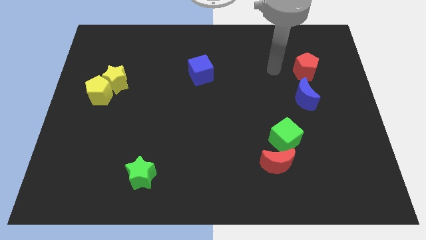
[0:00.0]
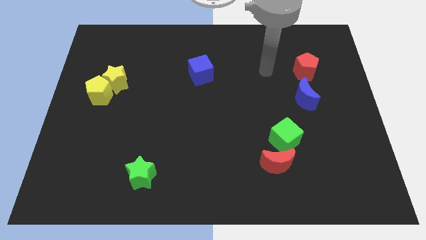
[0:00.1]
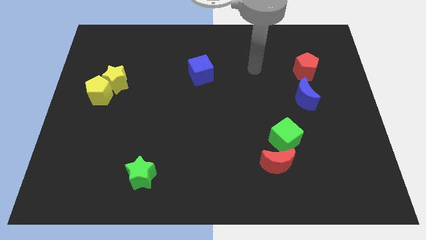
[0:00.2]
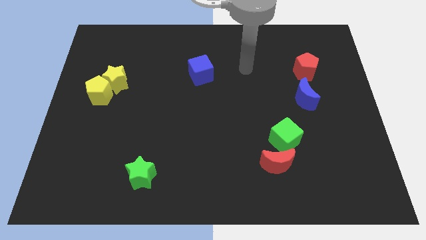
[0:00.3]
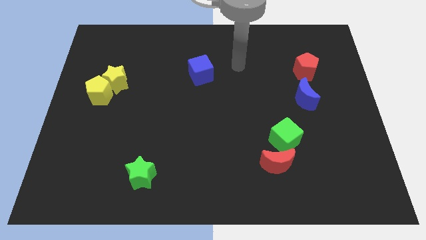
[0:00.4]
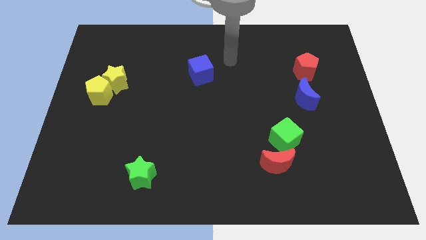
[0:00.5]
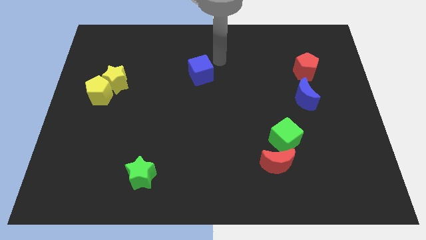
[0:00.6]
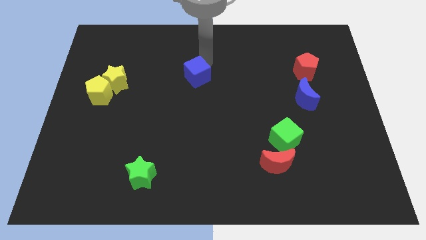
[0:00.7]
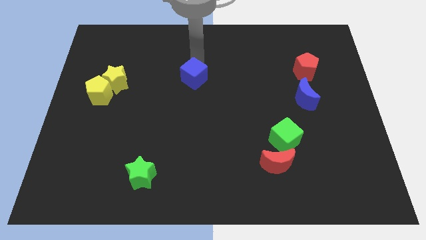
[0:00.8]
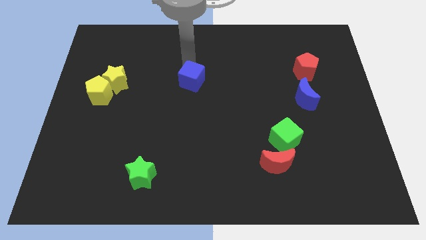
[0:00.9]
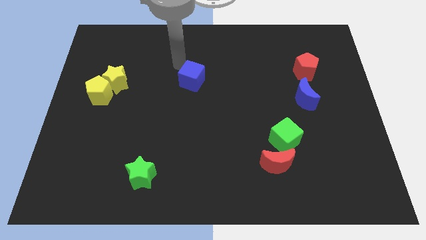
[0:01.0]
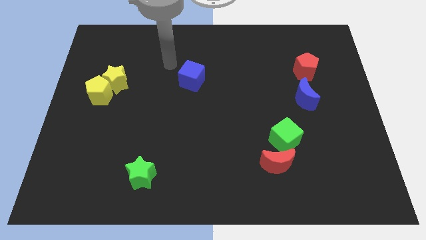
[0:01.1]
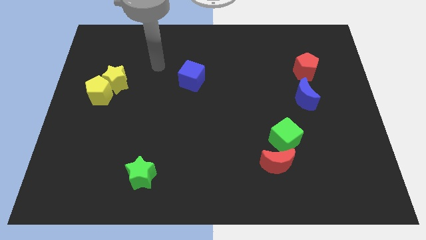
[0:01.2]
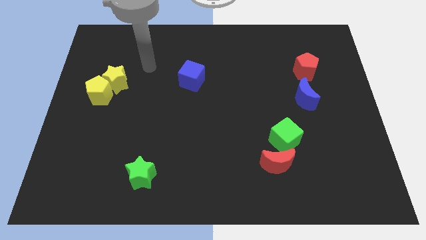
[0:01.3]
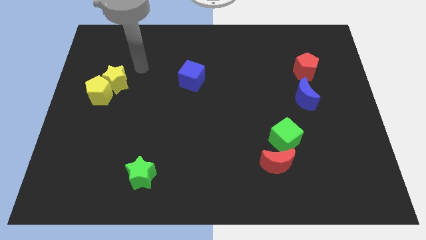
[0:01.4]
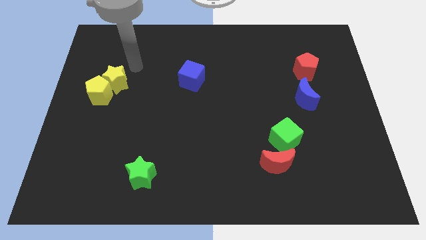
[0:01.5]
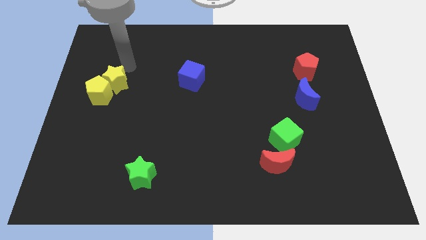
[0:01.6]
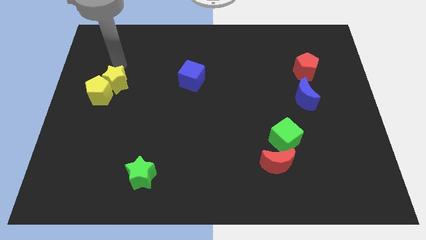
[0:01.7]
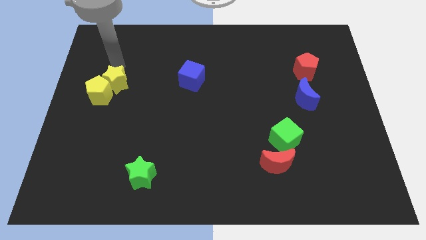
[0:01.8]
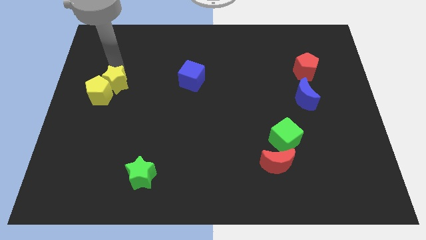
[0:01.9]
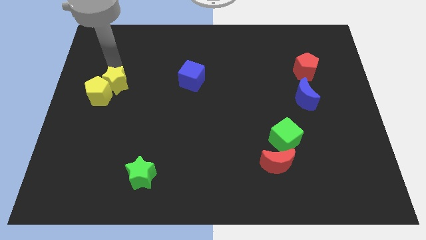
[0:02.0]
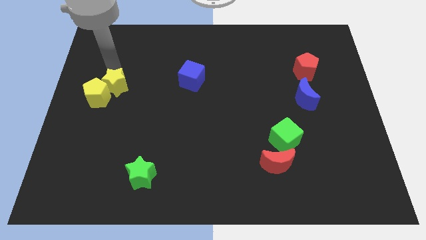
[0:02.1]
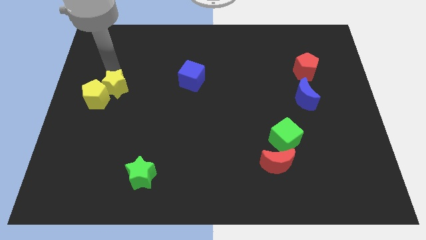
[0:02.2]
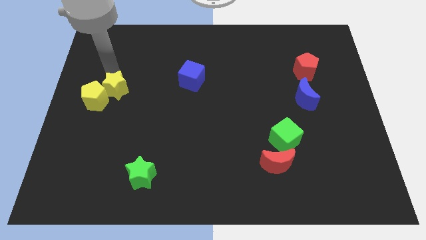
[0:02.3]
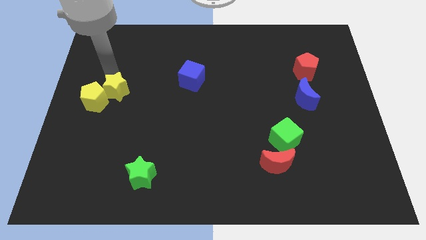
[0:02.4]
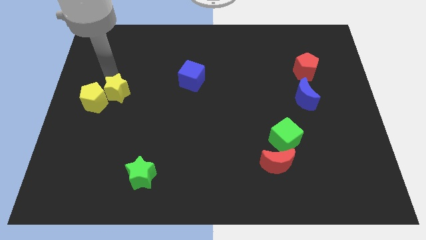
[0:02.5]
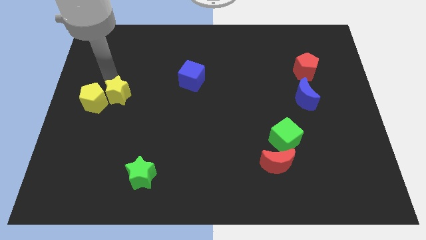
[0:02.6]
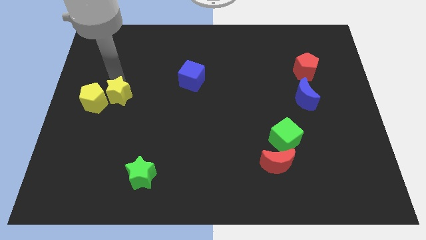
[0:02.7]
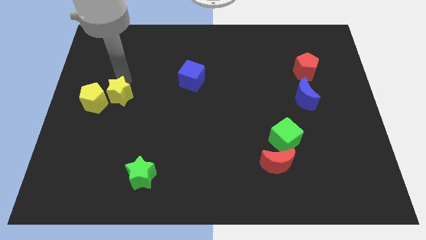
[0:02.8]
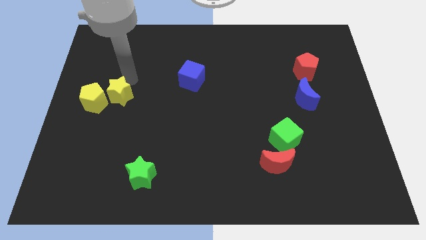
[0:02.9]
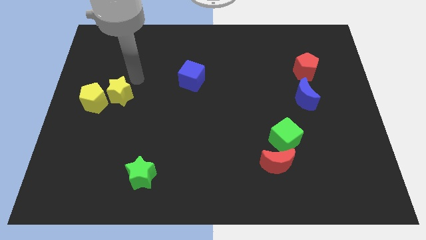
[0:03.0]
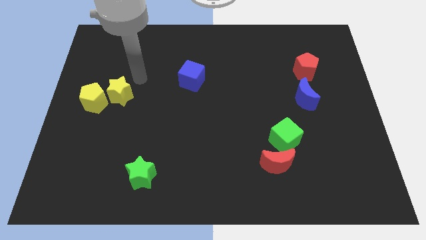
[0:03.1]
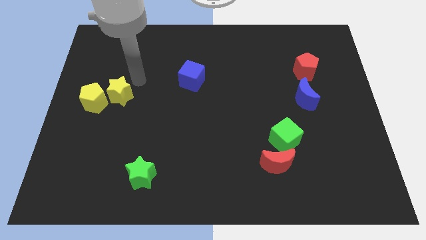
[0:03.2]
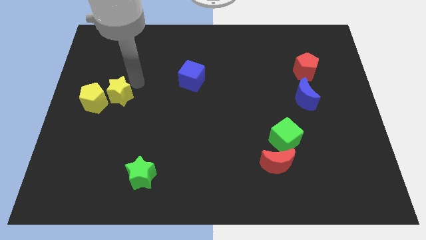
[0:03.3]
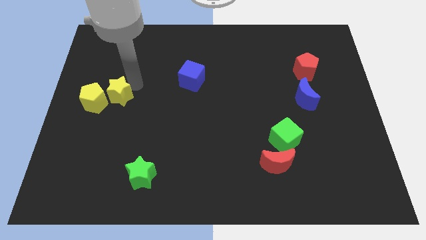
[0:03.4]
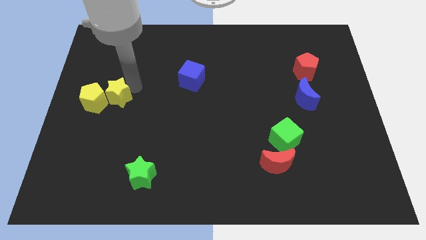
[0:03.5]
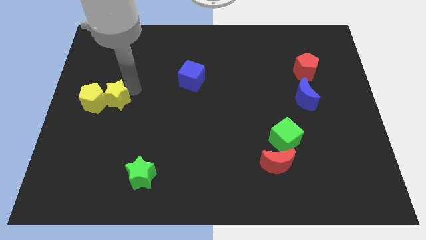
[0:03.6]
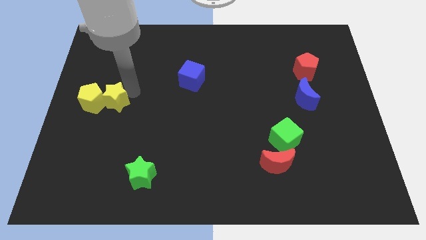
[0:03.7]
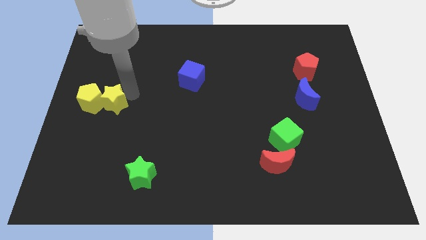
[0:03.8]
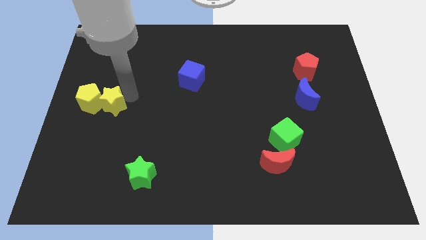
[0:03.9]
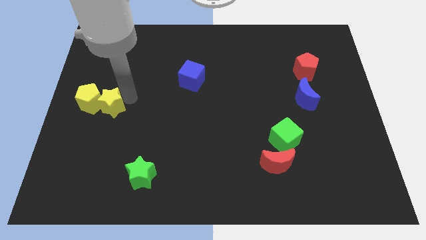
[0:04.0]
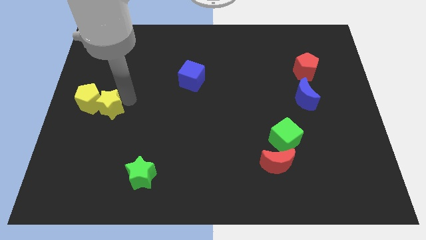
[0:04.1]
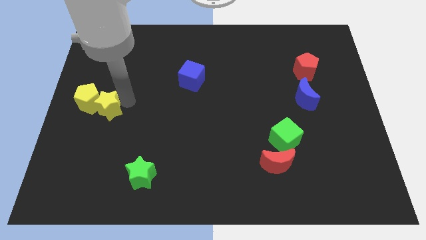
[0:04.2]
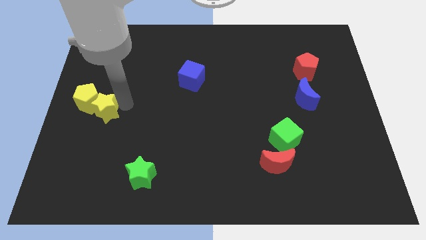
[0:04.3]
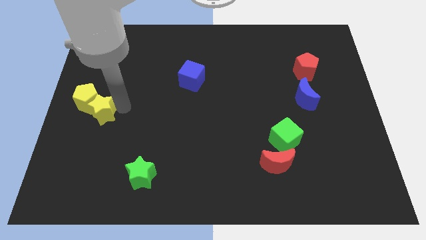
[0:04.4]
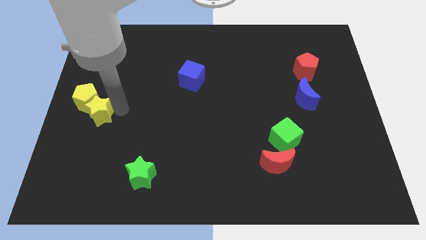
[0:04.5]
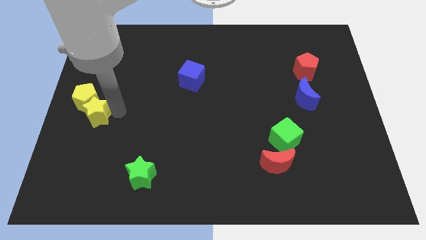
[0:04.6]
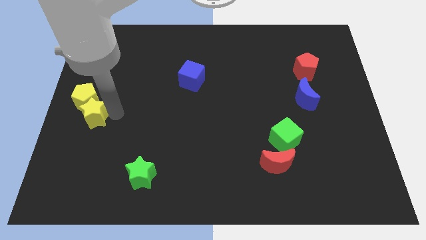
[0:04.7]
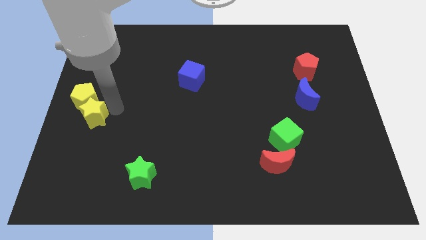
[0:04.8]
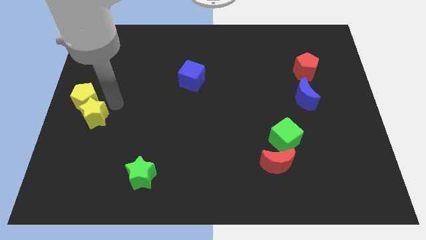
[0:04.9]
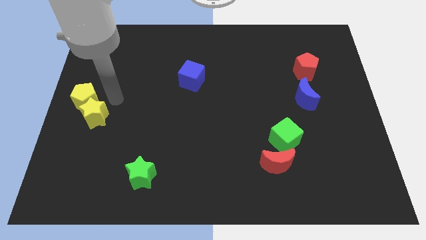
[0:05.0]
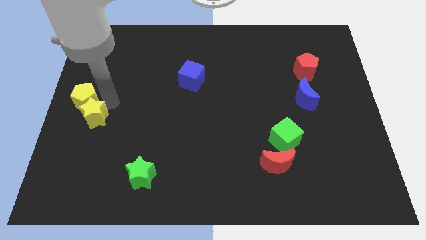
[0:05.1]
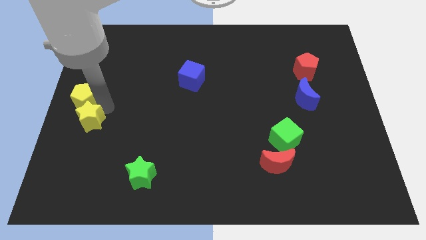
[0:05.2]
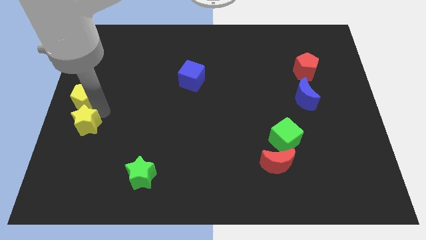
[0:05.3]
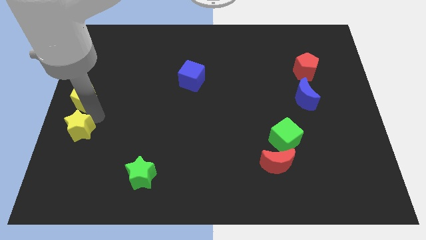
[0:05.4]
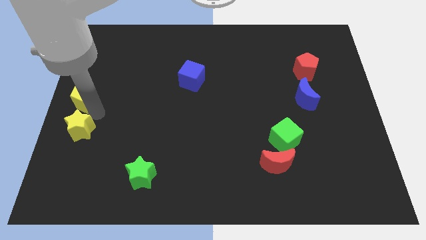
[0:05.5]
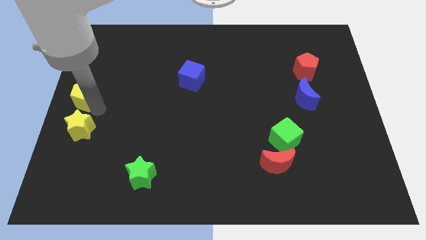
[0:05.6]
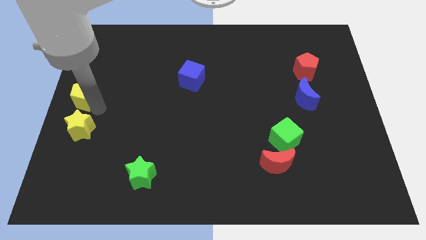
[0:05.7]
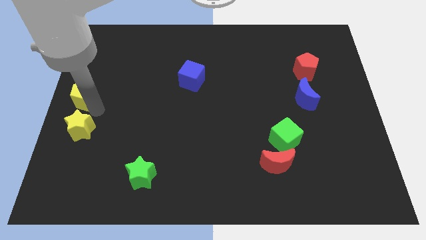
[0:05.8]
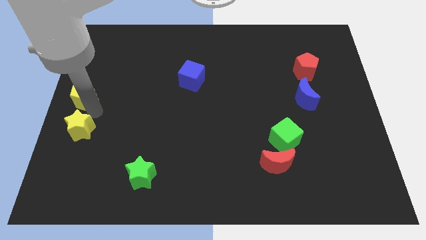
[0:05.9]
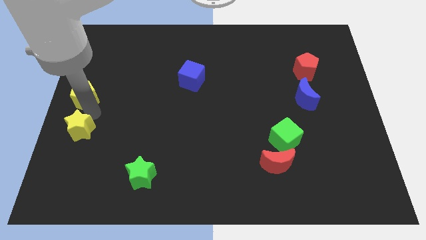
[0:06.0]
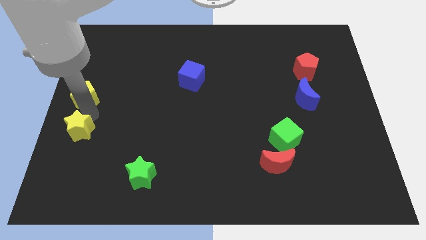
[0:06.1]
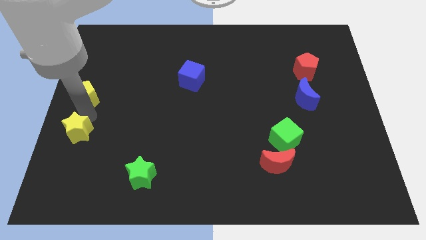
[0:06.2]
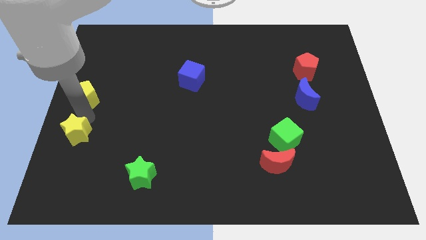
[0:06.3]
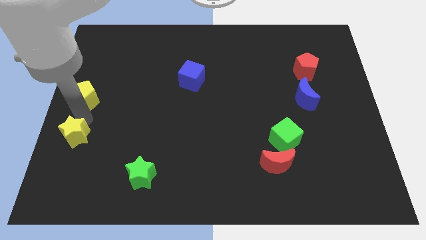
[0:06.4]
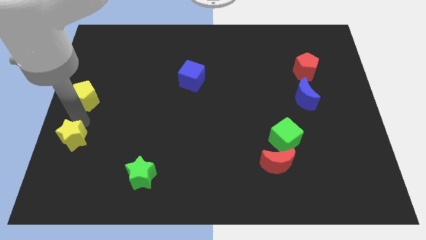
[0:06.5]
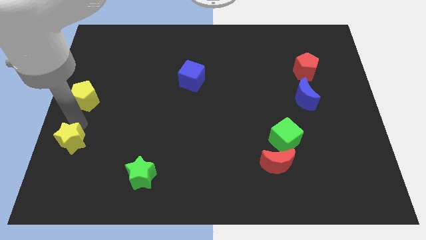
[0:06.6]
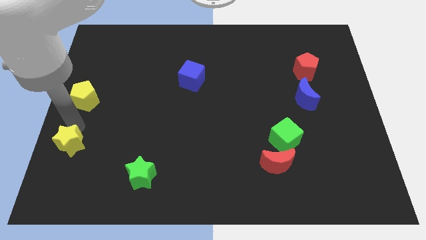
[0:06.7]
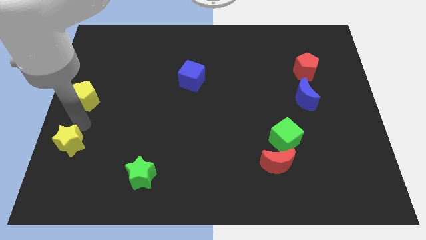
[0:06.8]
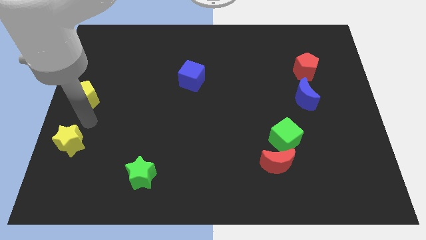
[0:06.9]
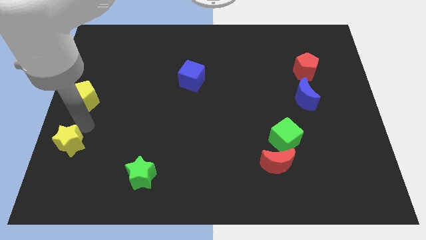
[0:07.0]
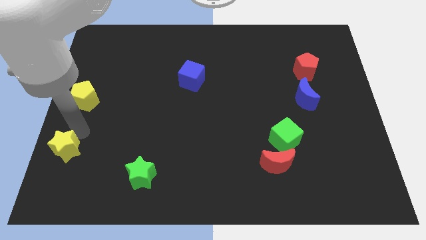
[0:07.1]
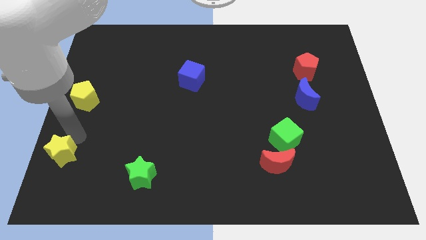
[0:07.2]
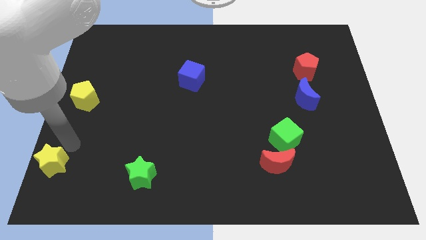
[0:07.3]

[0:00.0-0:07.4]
slide the yellow star to the bottom left of the board
